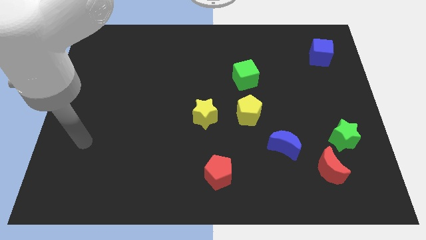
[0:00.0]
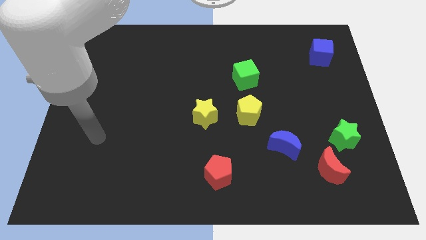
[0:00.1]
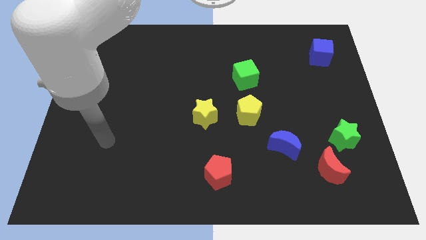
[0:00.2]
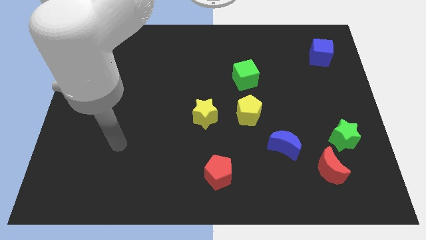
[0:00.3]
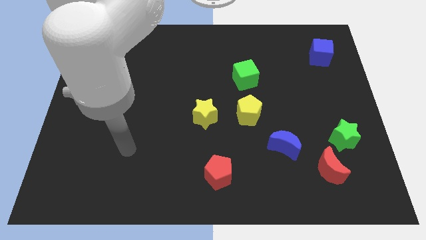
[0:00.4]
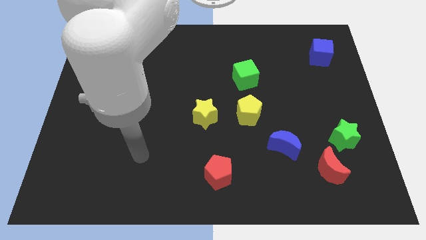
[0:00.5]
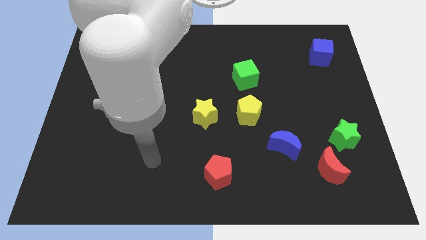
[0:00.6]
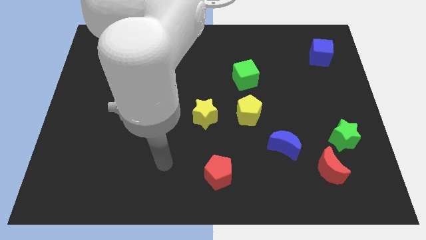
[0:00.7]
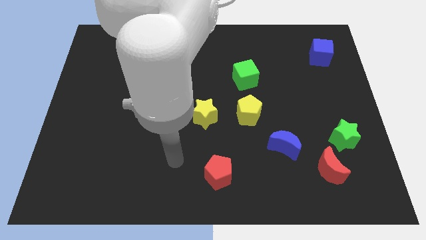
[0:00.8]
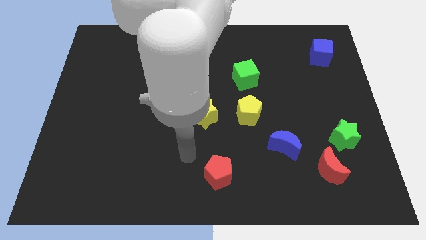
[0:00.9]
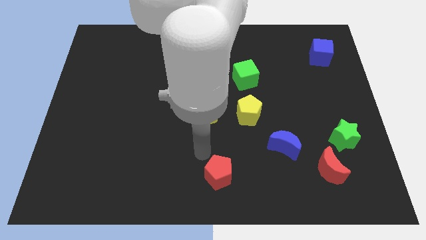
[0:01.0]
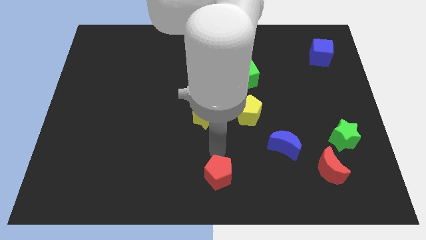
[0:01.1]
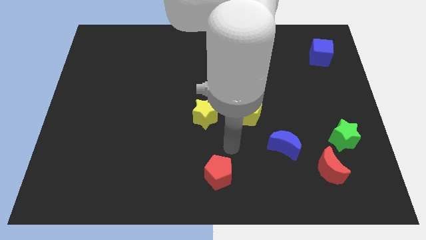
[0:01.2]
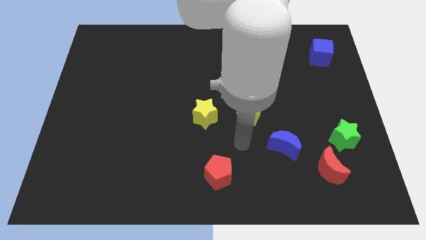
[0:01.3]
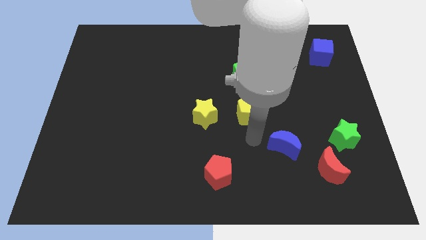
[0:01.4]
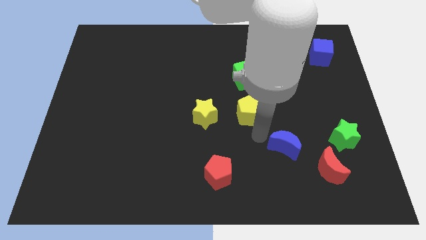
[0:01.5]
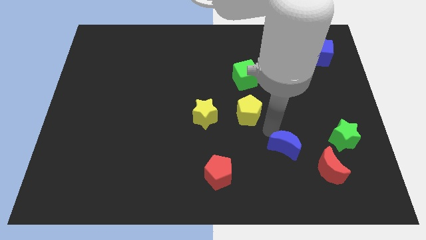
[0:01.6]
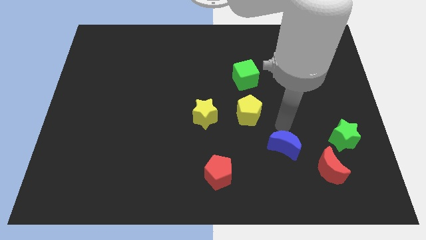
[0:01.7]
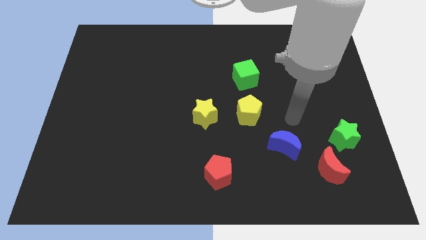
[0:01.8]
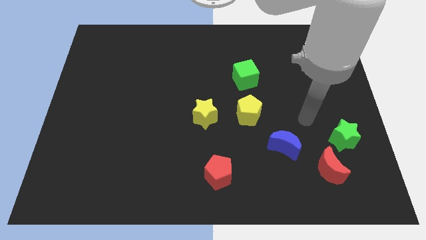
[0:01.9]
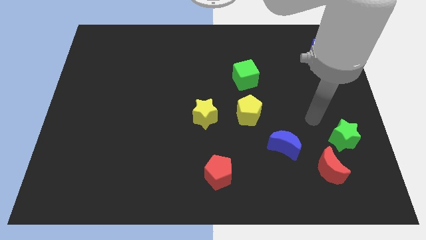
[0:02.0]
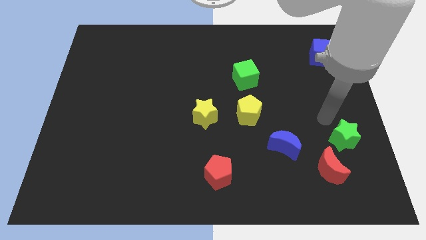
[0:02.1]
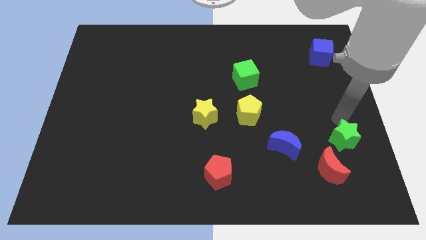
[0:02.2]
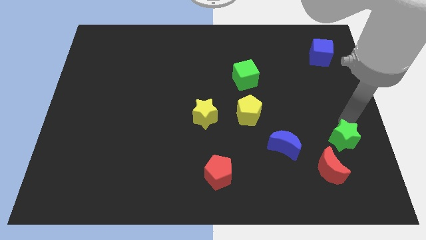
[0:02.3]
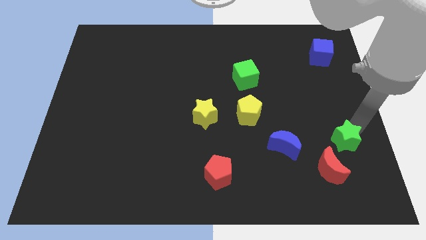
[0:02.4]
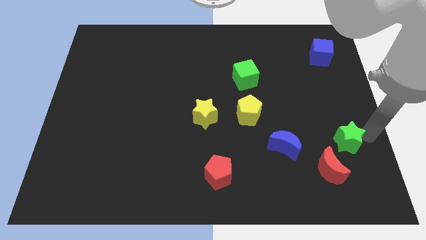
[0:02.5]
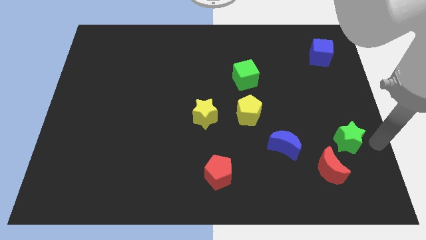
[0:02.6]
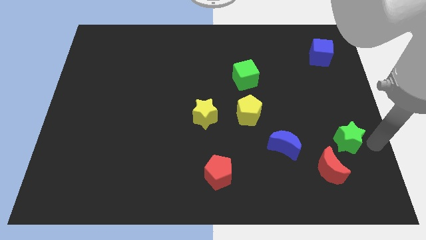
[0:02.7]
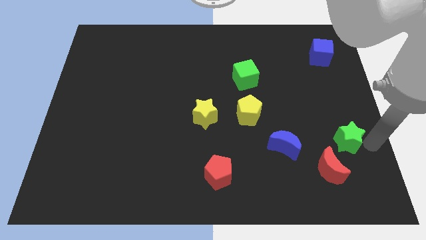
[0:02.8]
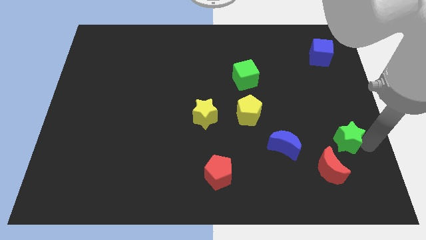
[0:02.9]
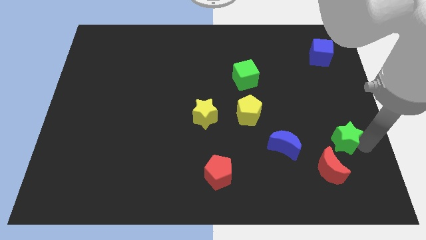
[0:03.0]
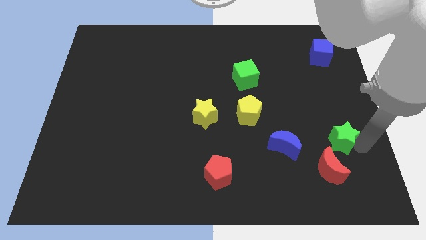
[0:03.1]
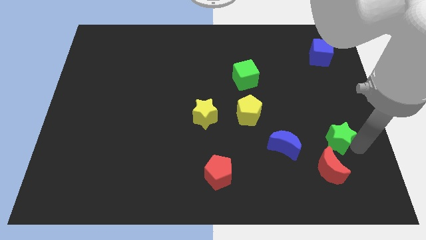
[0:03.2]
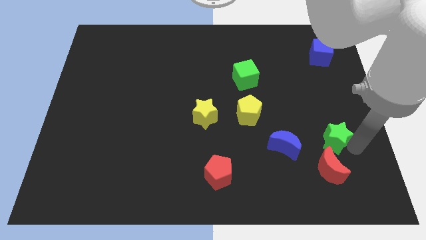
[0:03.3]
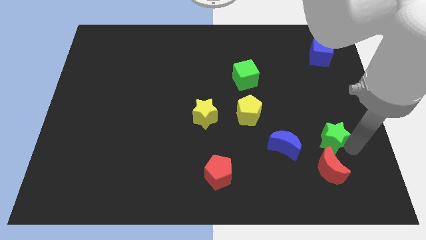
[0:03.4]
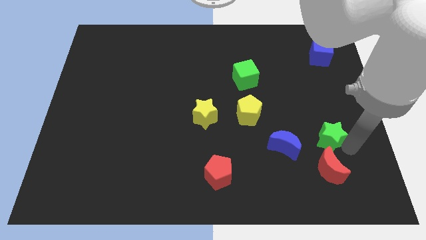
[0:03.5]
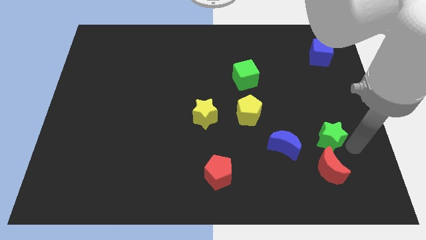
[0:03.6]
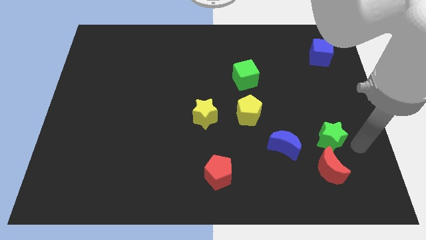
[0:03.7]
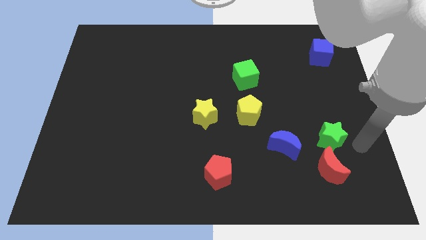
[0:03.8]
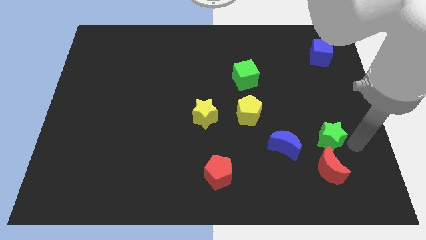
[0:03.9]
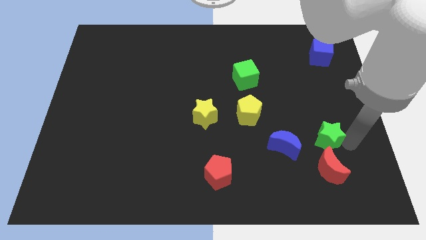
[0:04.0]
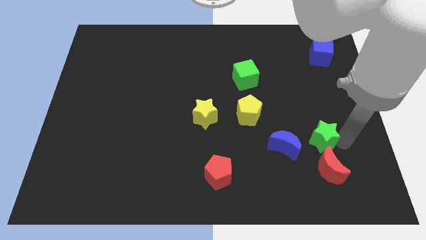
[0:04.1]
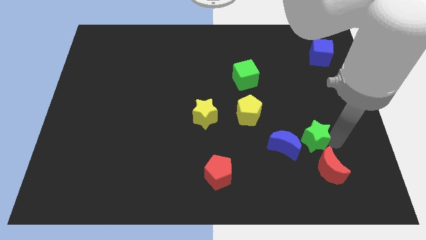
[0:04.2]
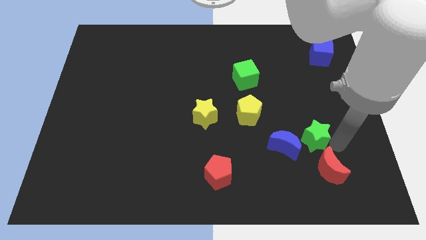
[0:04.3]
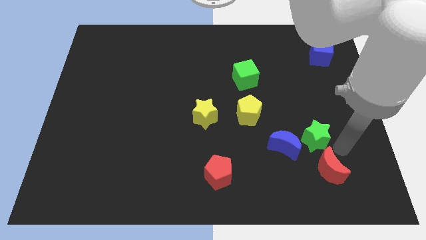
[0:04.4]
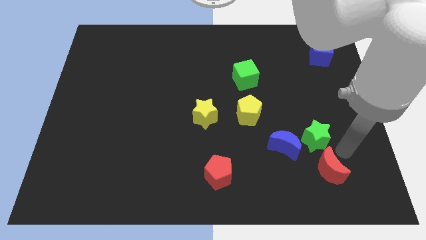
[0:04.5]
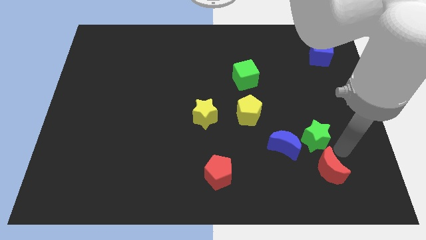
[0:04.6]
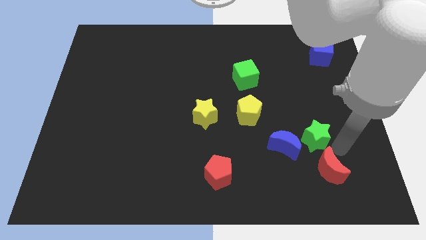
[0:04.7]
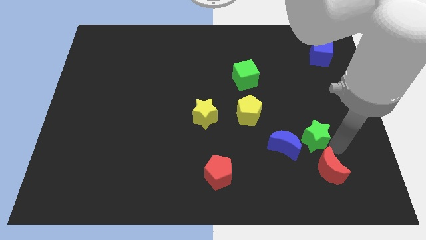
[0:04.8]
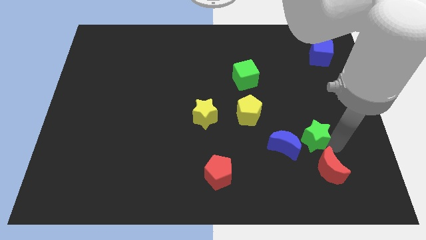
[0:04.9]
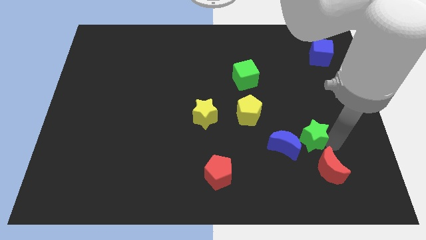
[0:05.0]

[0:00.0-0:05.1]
slide the green star to the left slightly

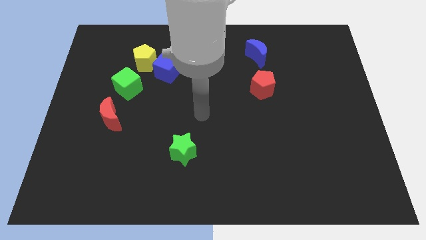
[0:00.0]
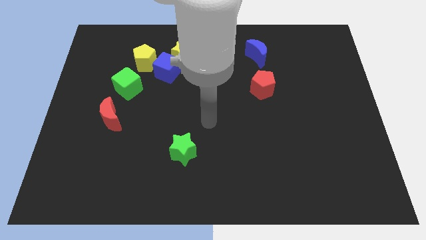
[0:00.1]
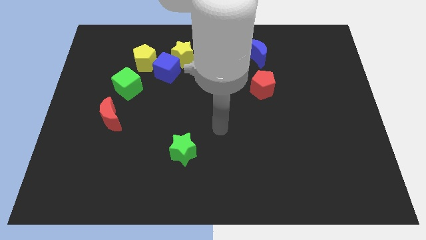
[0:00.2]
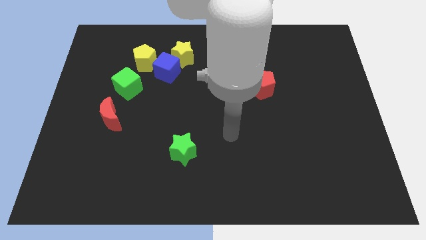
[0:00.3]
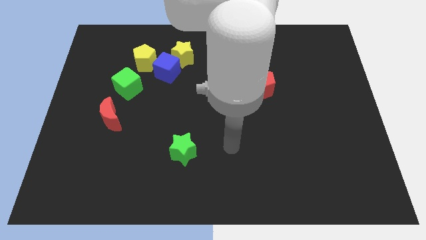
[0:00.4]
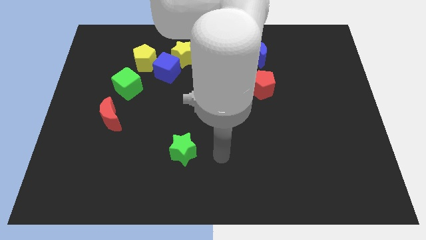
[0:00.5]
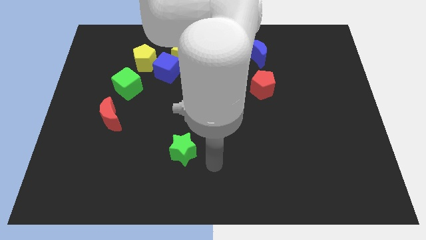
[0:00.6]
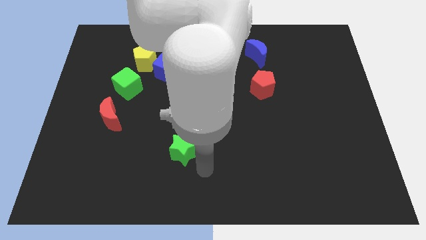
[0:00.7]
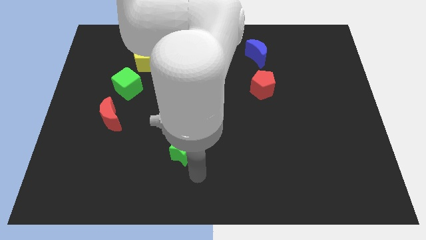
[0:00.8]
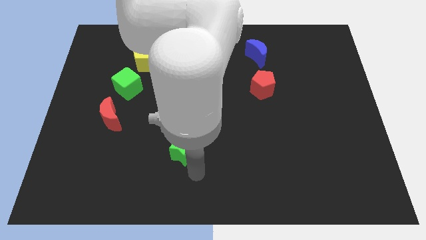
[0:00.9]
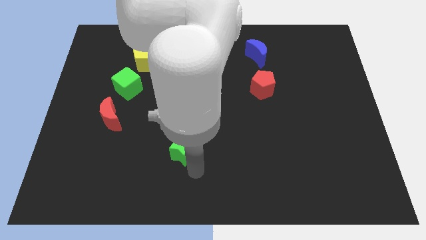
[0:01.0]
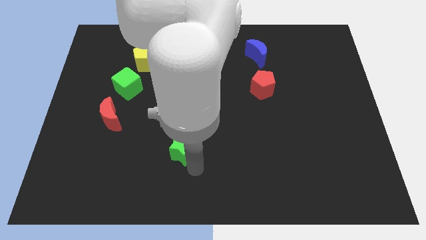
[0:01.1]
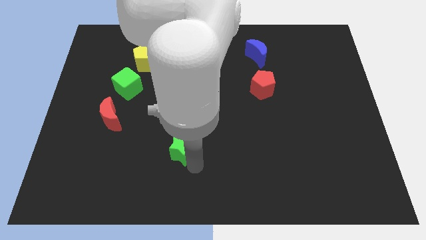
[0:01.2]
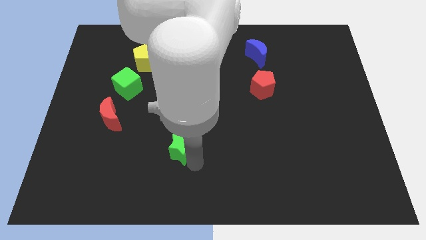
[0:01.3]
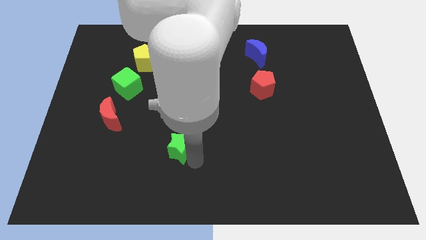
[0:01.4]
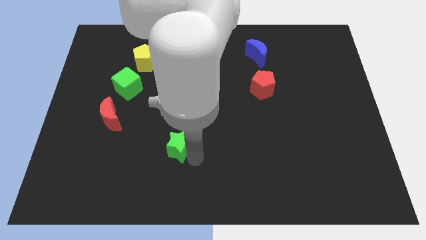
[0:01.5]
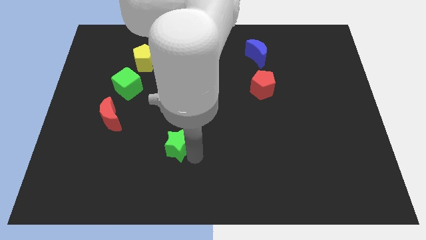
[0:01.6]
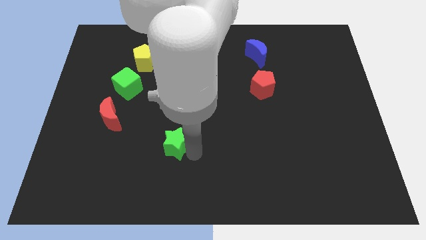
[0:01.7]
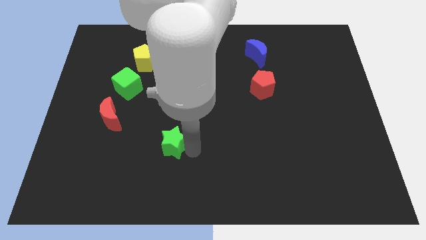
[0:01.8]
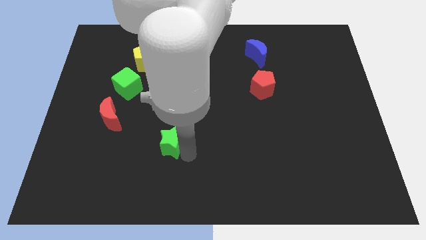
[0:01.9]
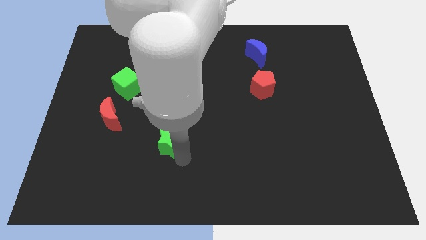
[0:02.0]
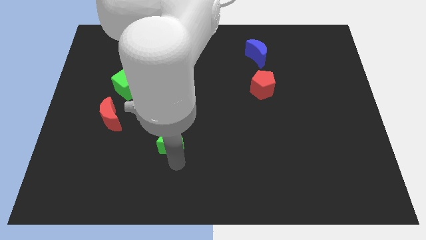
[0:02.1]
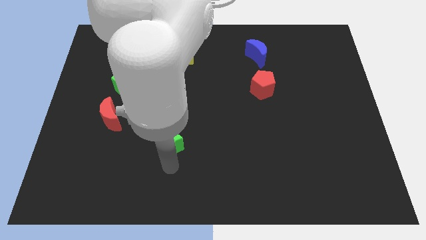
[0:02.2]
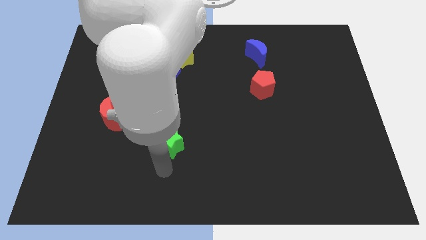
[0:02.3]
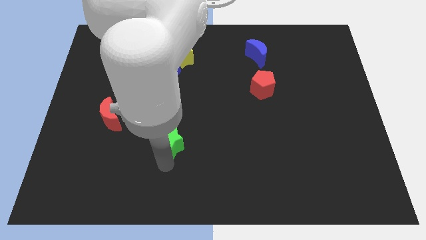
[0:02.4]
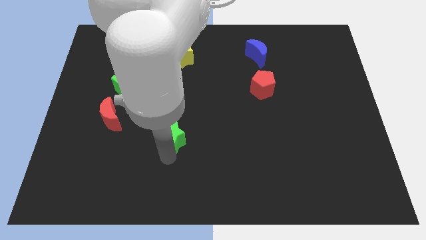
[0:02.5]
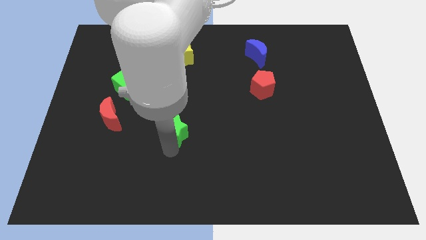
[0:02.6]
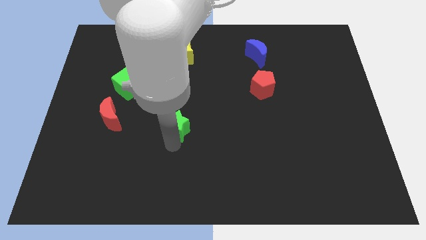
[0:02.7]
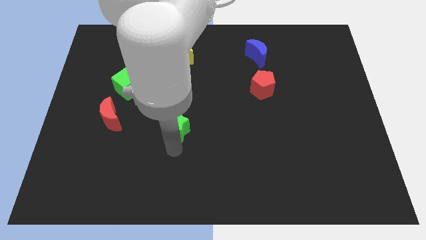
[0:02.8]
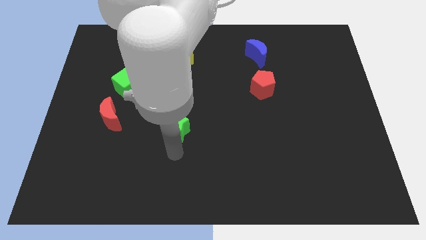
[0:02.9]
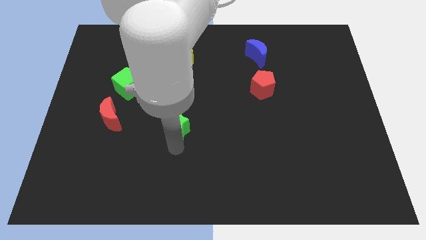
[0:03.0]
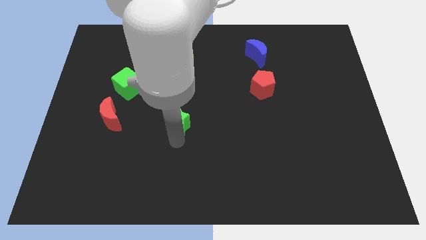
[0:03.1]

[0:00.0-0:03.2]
slightly push the green star up
